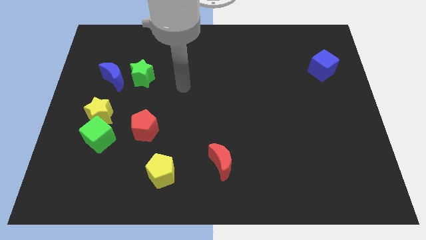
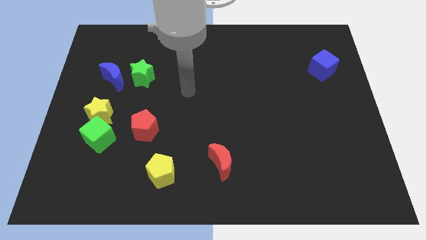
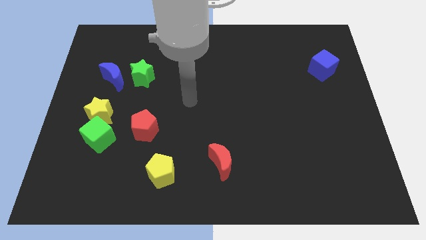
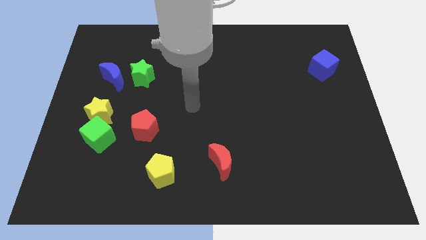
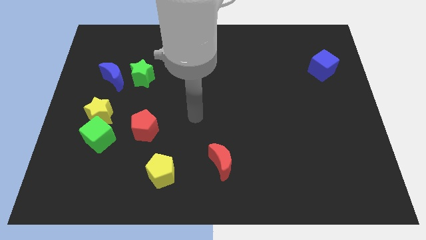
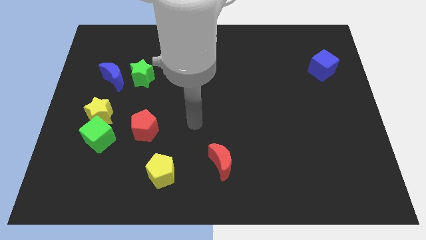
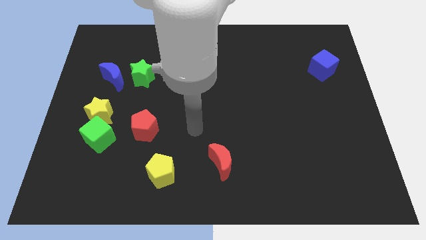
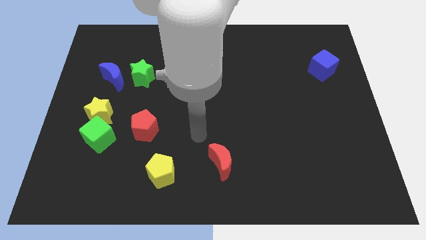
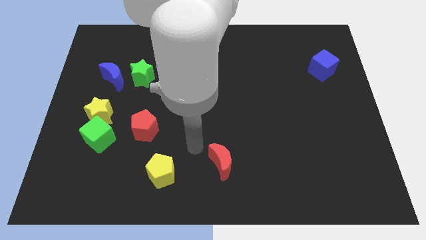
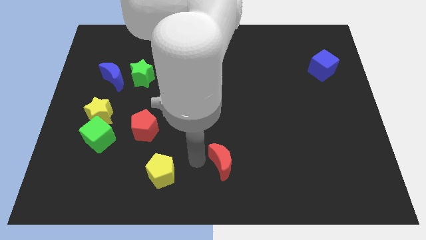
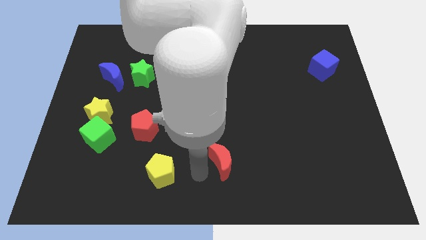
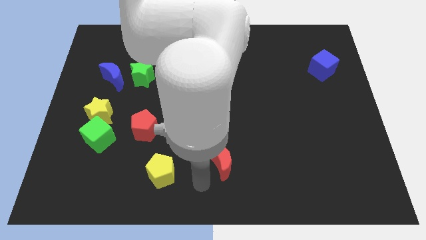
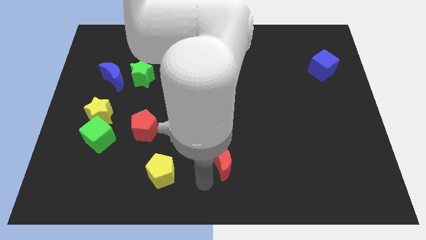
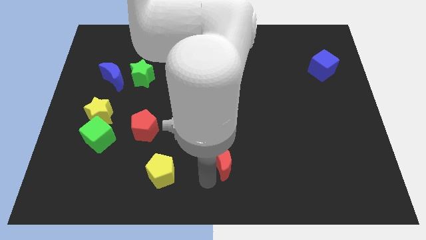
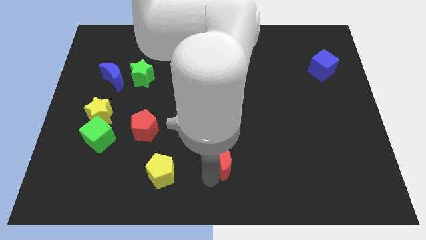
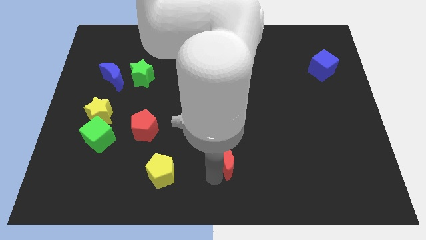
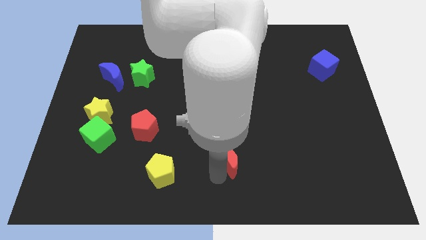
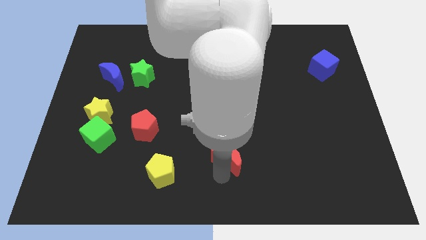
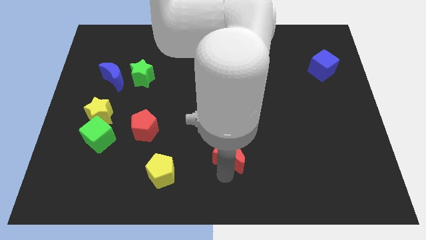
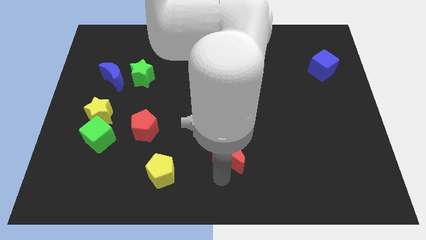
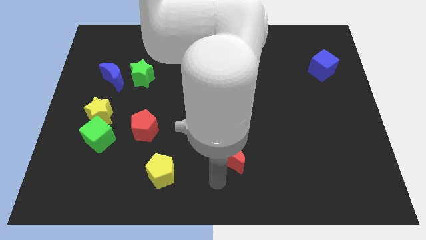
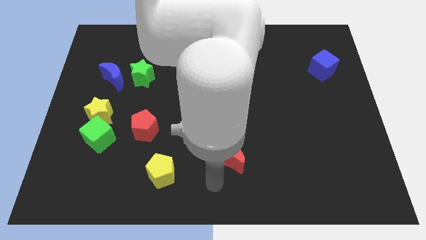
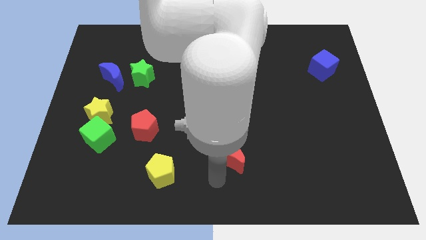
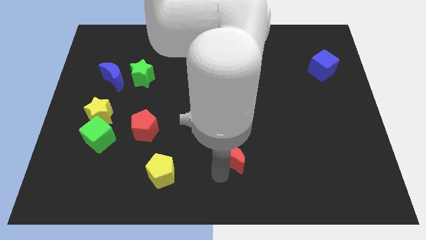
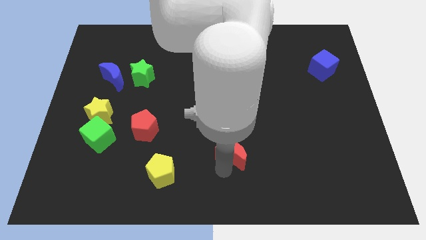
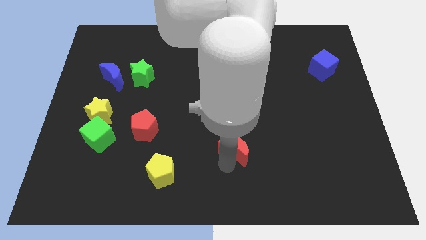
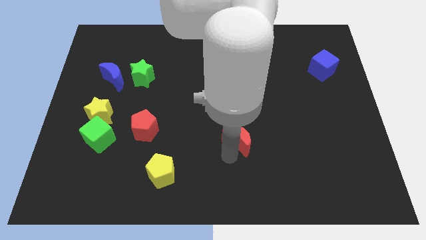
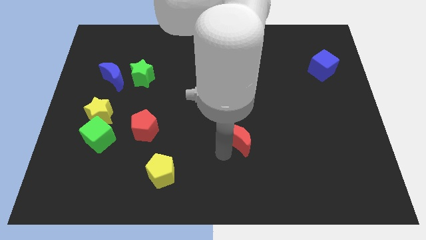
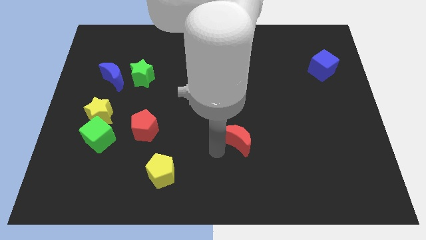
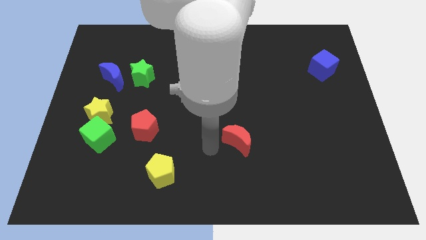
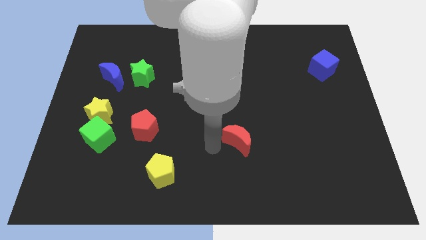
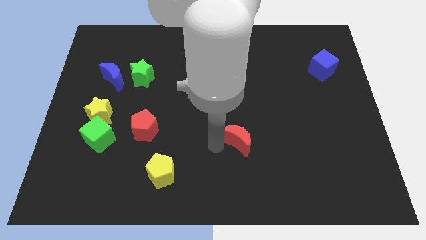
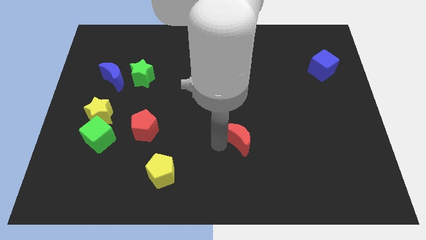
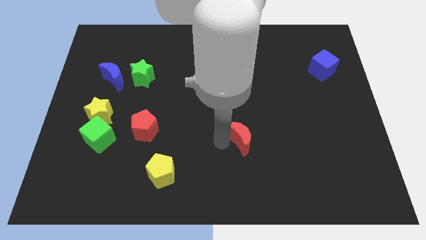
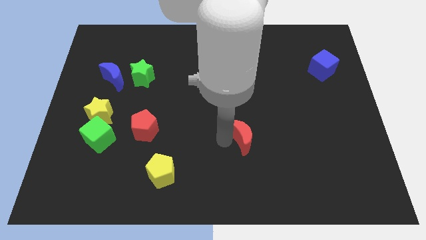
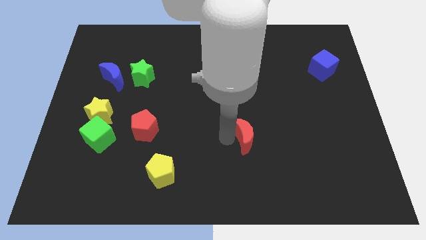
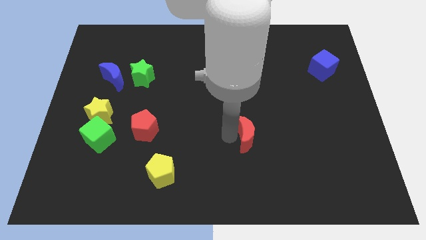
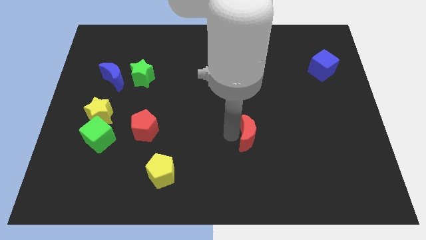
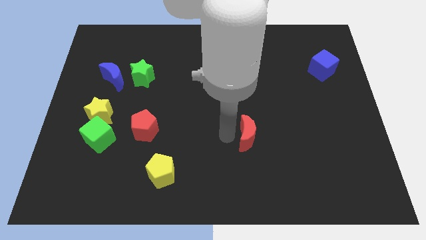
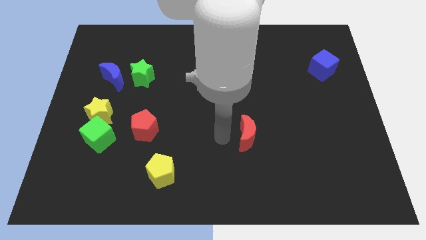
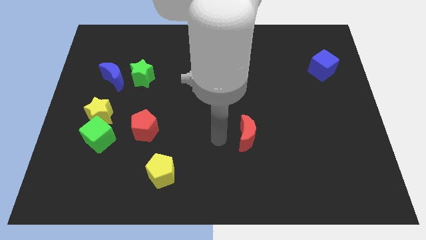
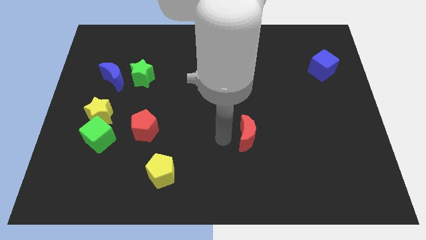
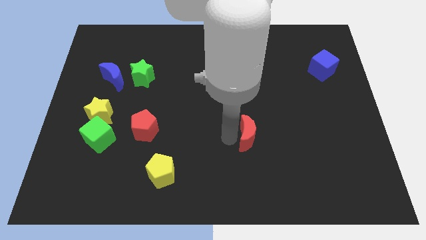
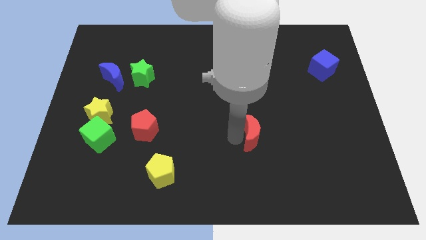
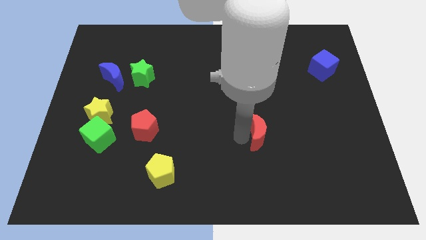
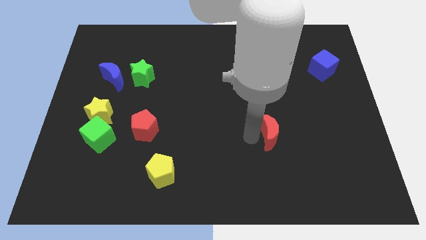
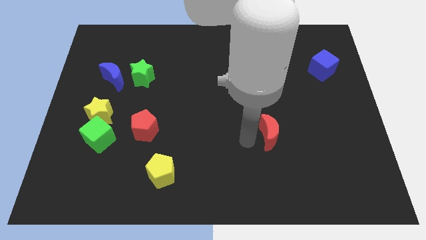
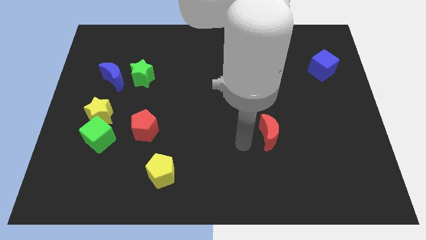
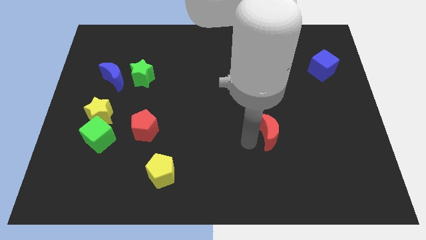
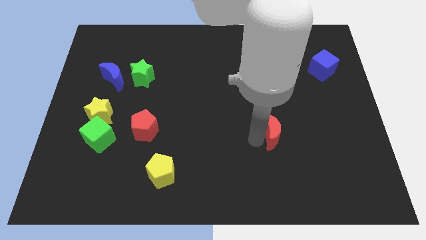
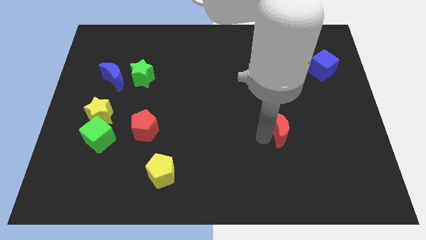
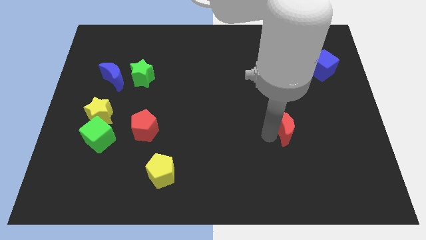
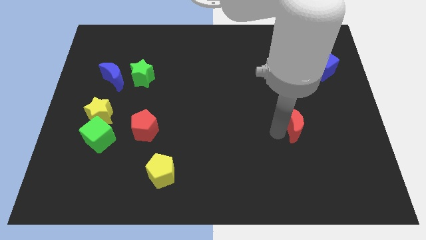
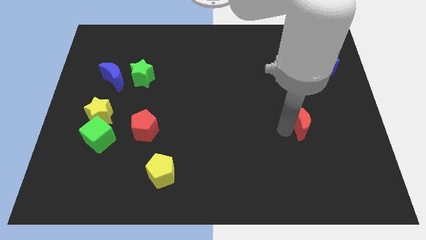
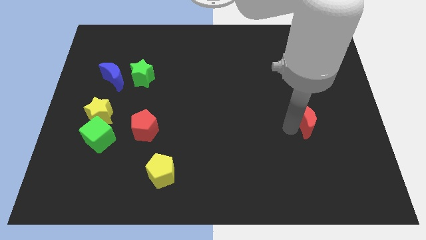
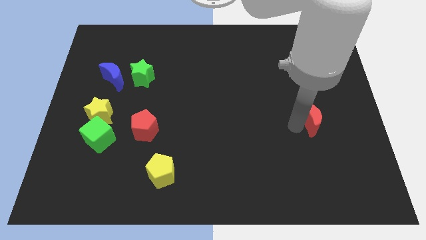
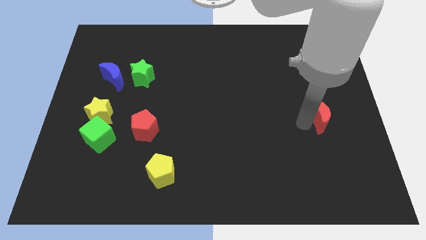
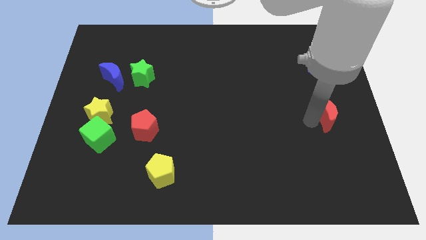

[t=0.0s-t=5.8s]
slide the red moon to the center right

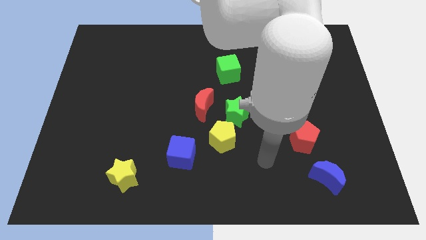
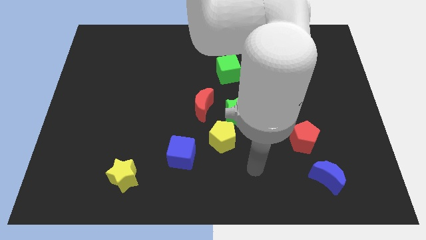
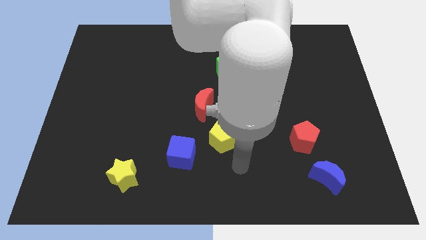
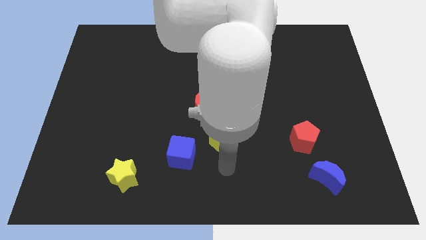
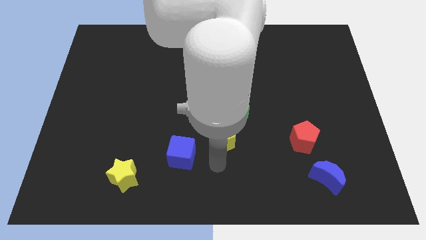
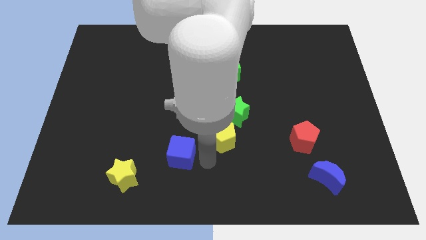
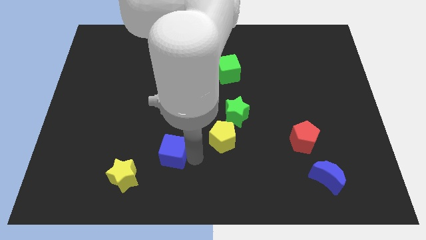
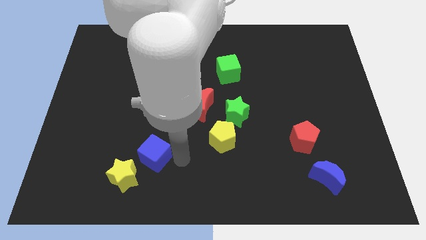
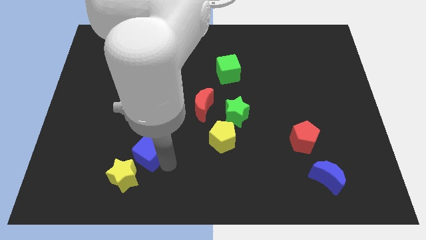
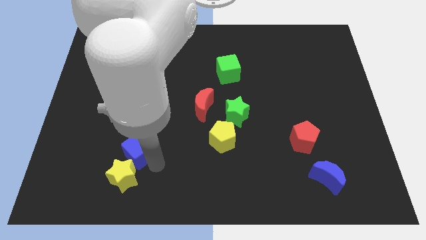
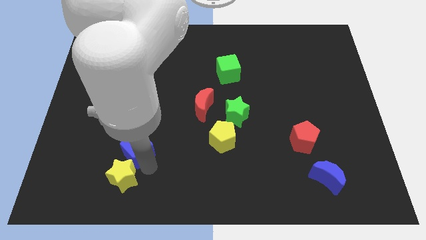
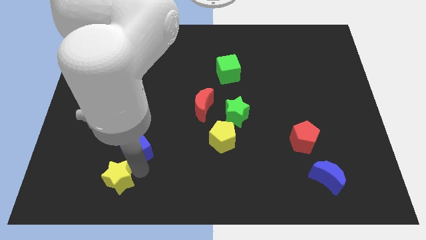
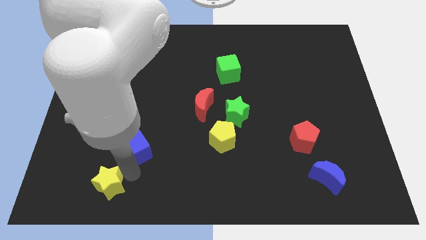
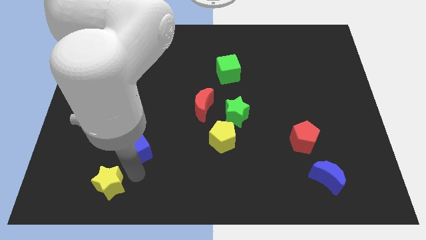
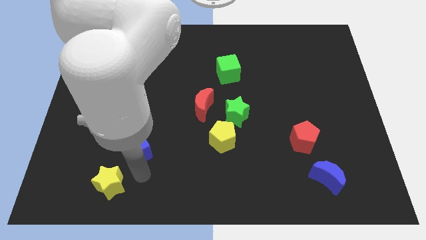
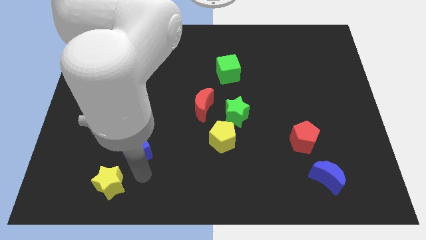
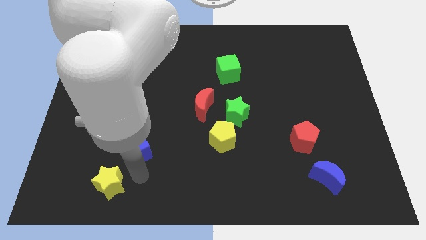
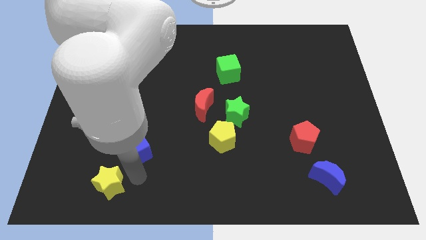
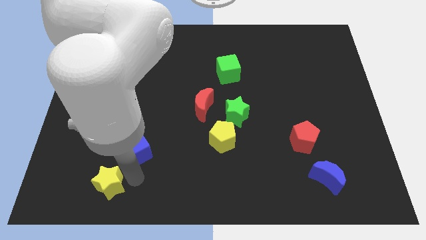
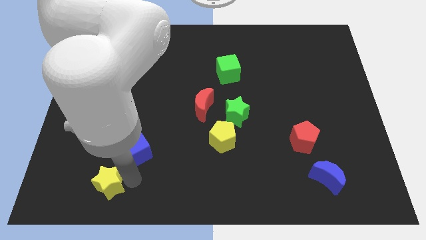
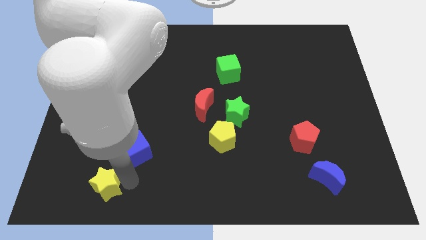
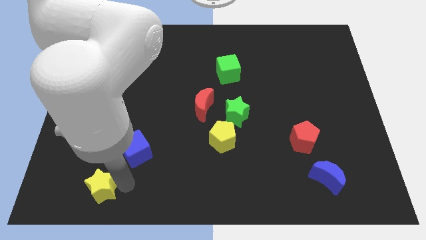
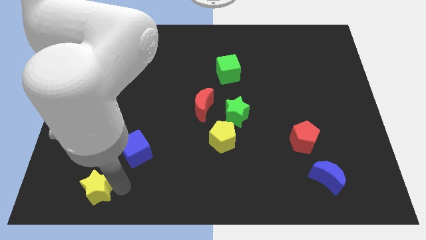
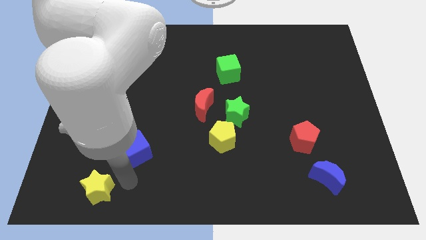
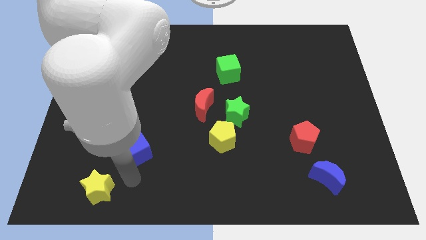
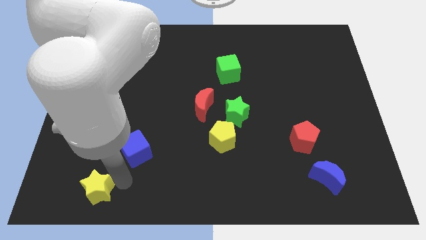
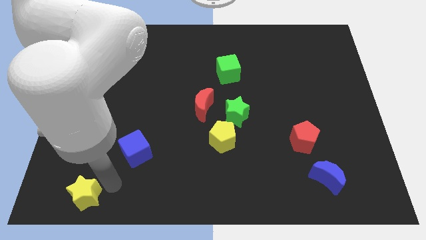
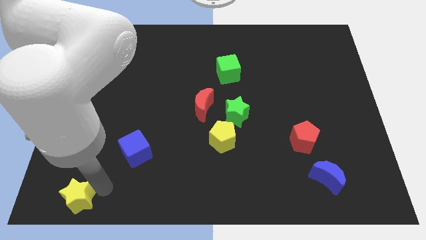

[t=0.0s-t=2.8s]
move the yellow star to the lower left corner
